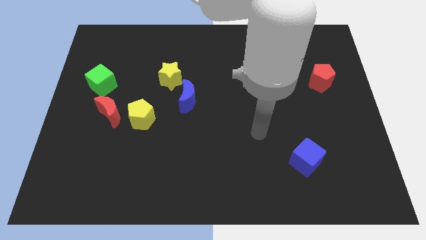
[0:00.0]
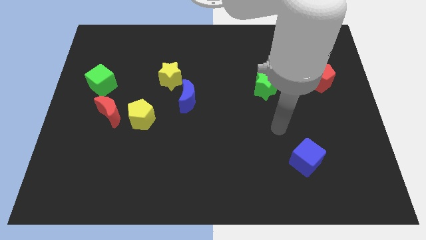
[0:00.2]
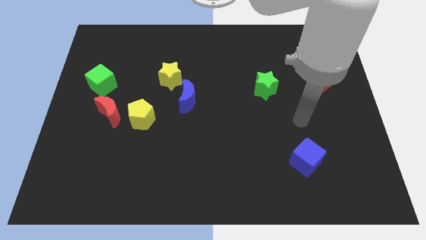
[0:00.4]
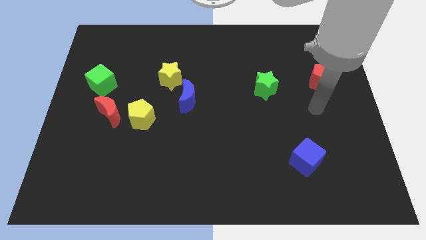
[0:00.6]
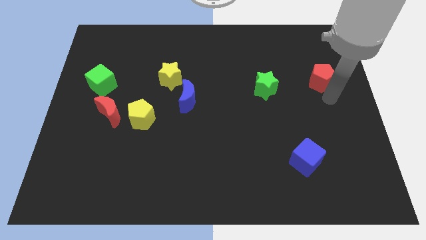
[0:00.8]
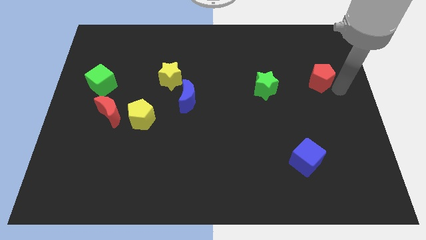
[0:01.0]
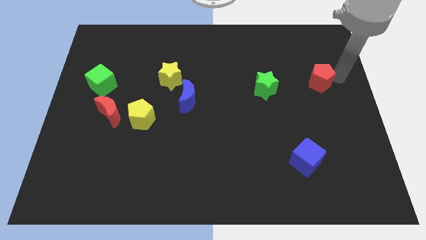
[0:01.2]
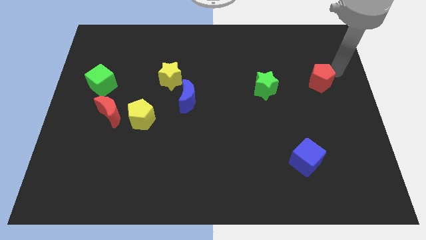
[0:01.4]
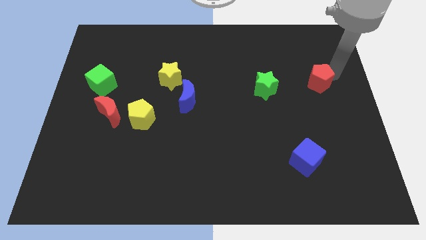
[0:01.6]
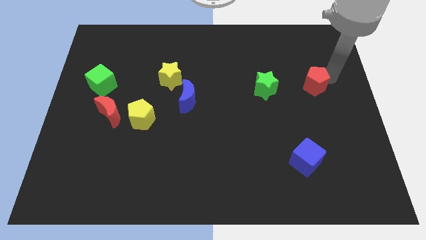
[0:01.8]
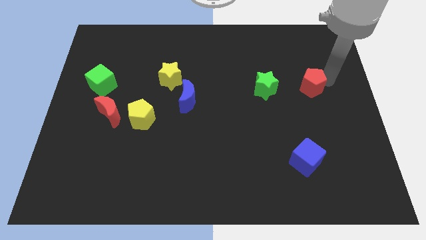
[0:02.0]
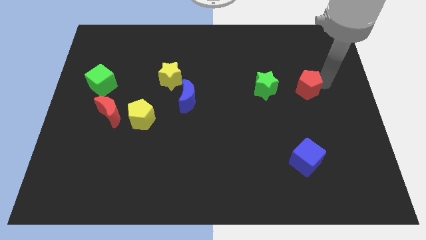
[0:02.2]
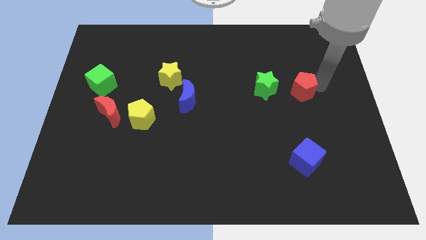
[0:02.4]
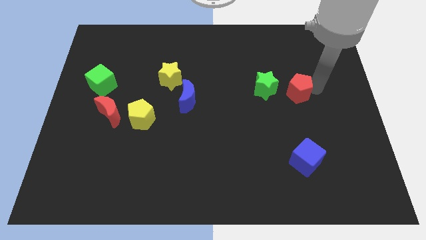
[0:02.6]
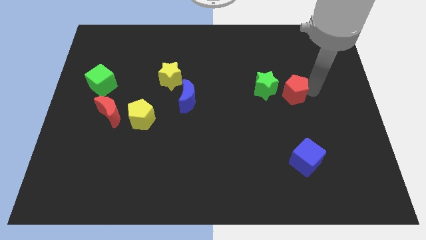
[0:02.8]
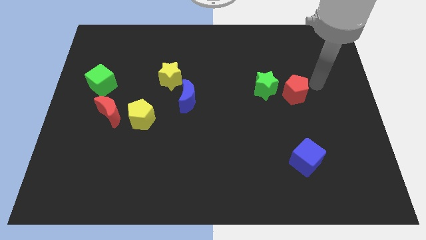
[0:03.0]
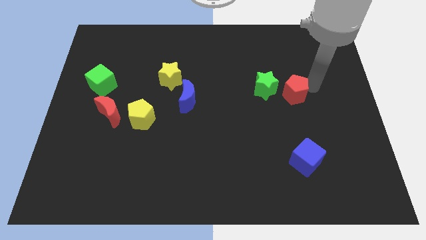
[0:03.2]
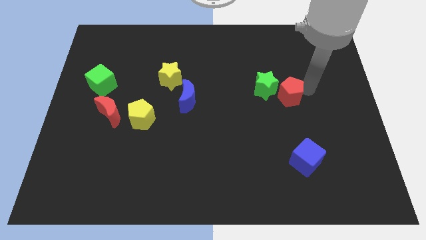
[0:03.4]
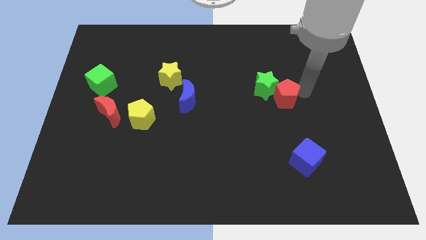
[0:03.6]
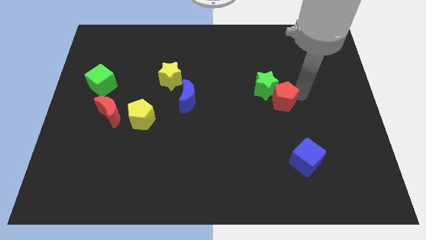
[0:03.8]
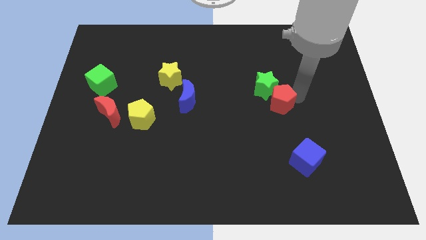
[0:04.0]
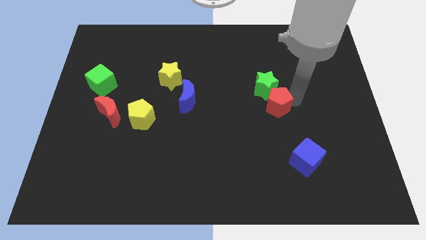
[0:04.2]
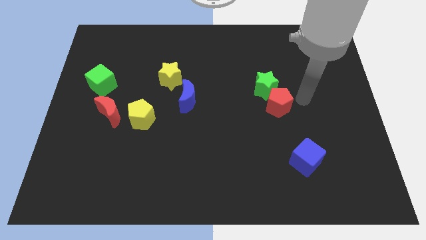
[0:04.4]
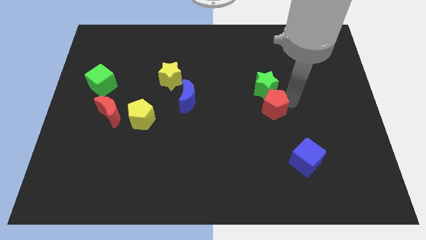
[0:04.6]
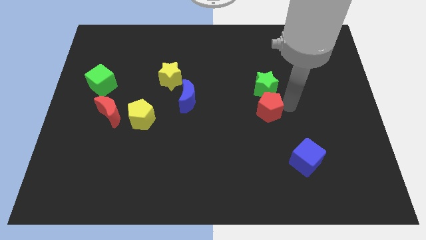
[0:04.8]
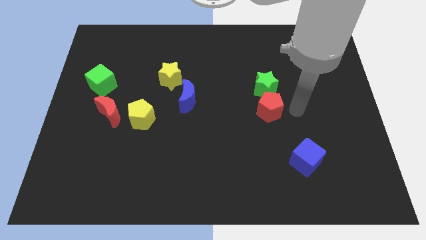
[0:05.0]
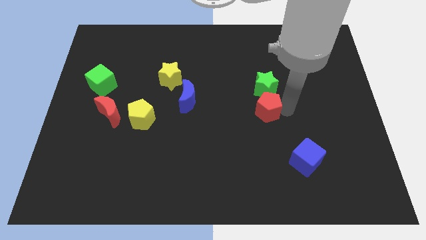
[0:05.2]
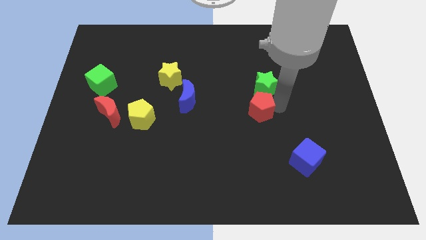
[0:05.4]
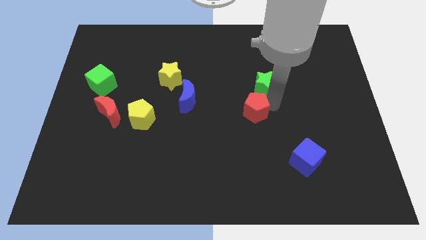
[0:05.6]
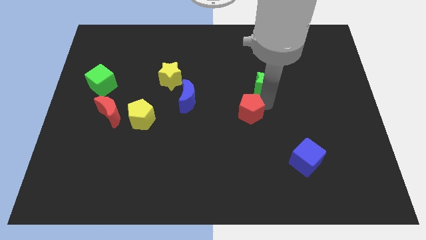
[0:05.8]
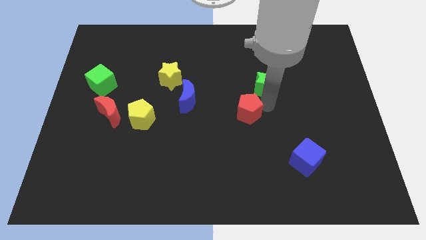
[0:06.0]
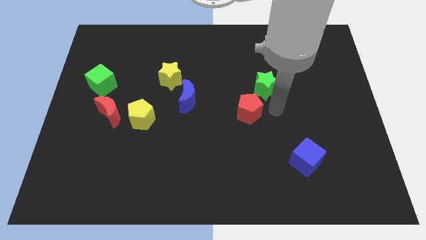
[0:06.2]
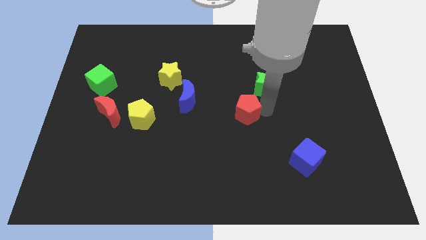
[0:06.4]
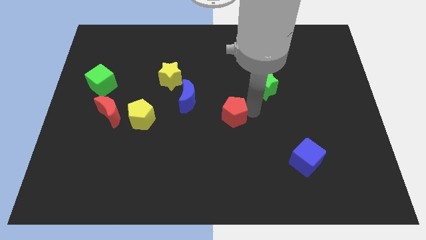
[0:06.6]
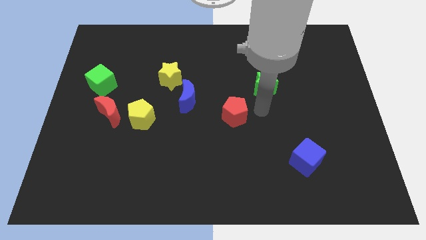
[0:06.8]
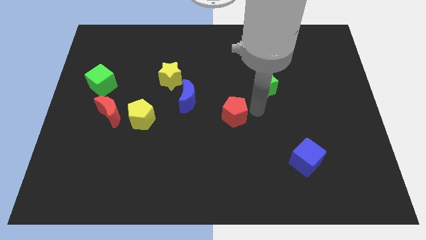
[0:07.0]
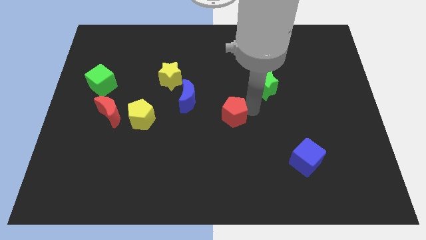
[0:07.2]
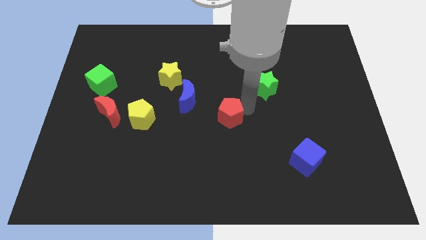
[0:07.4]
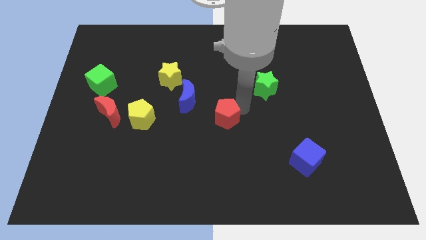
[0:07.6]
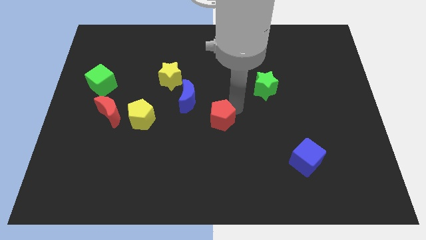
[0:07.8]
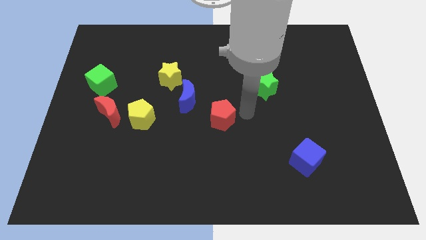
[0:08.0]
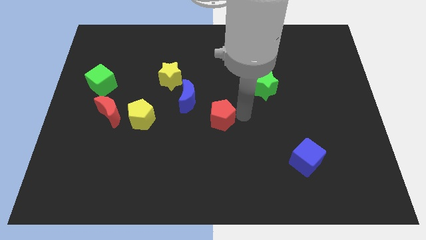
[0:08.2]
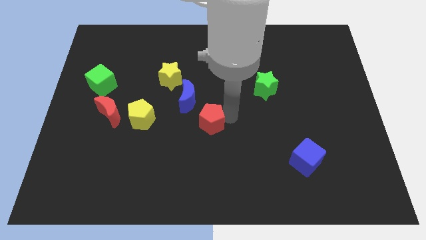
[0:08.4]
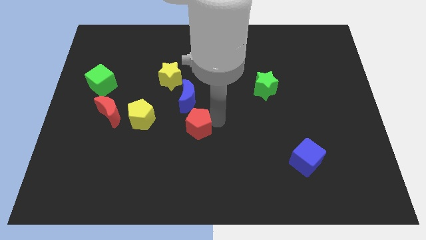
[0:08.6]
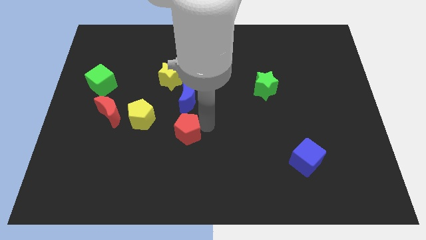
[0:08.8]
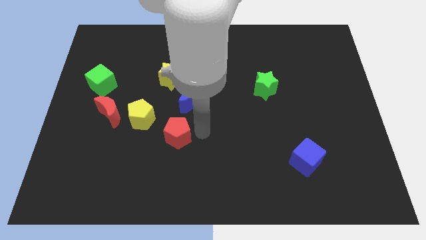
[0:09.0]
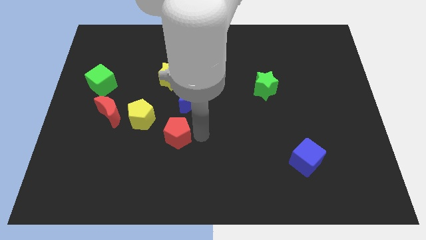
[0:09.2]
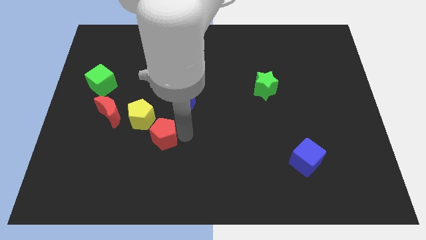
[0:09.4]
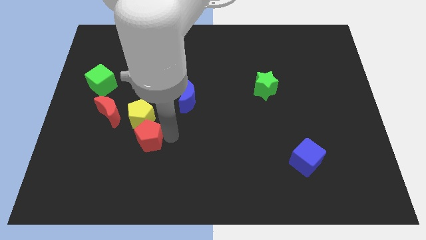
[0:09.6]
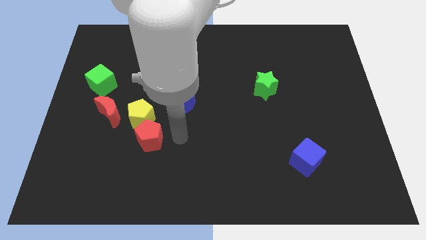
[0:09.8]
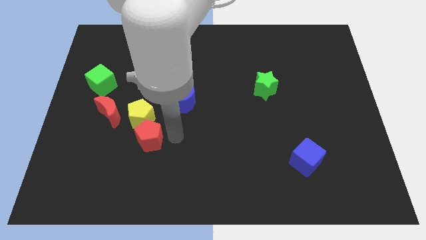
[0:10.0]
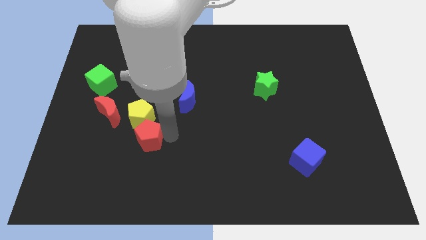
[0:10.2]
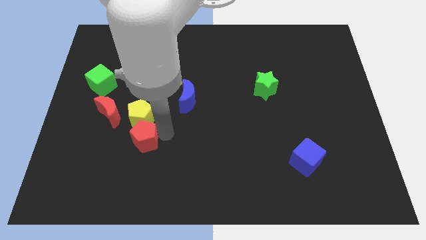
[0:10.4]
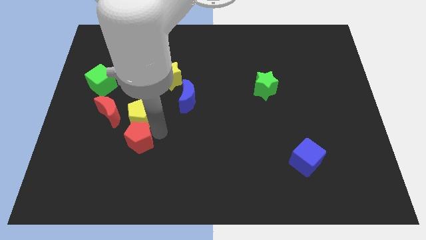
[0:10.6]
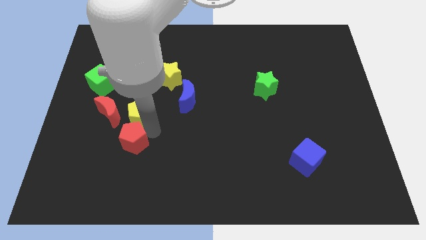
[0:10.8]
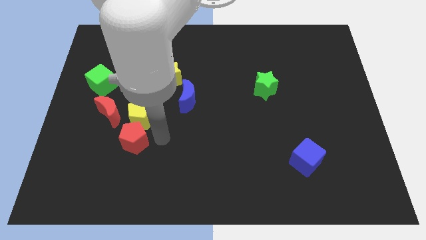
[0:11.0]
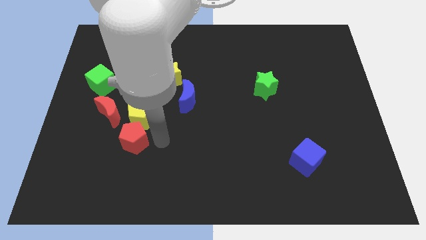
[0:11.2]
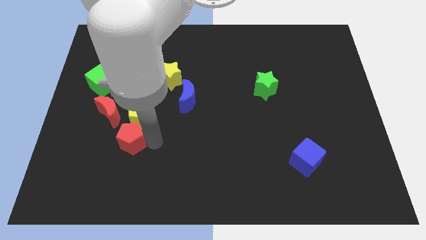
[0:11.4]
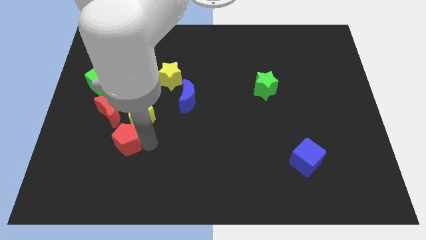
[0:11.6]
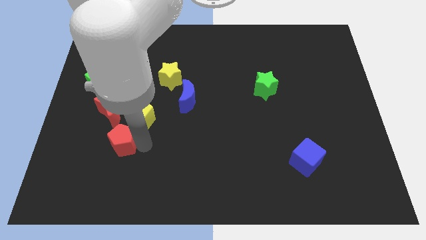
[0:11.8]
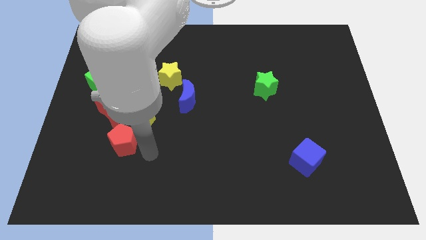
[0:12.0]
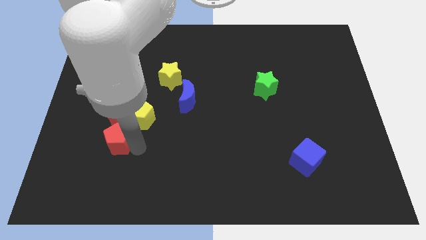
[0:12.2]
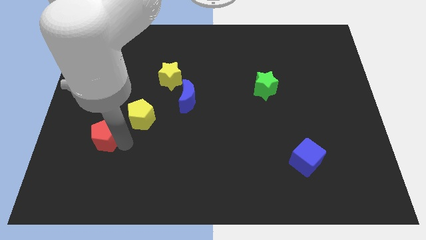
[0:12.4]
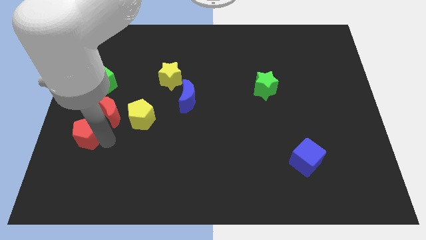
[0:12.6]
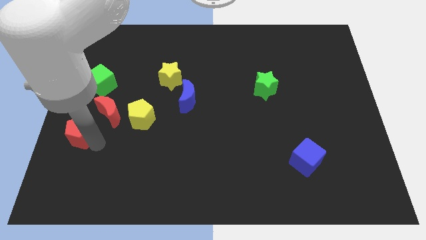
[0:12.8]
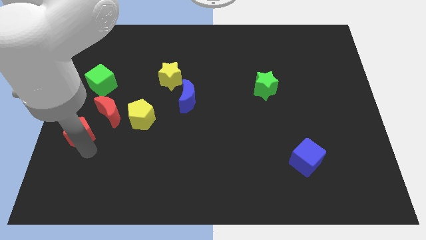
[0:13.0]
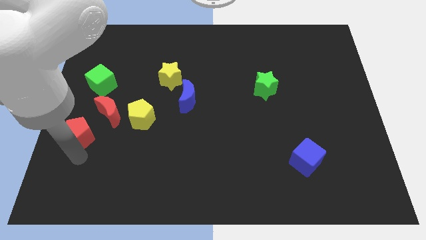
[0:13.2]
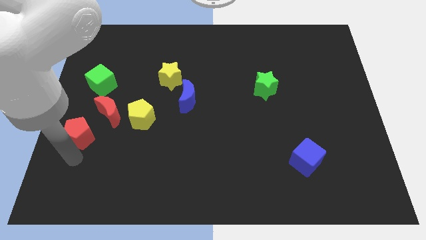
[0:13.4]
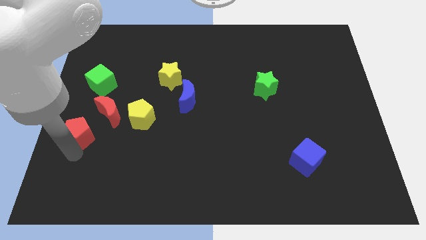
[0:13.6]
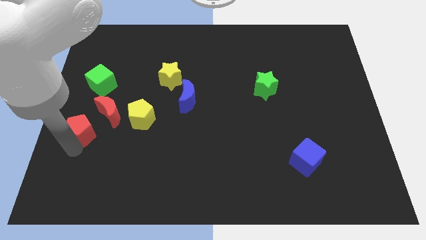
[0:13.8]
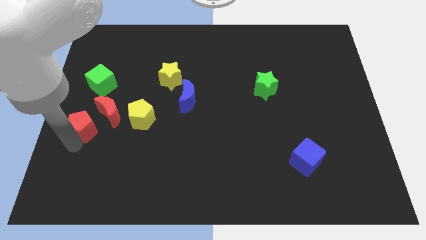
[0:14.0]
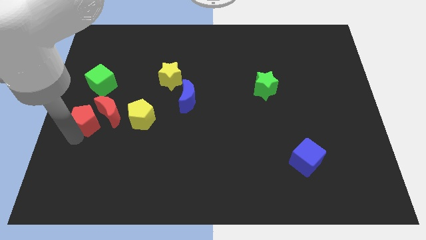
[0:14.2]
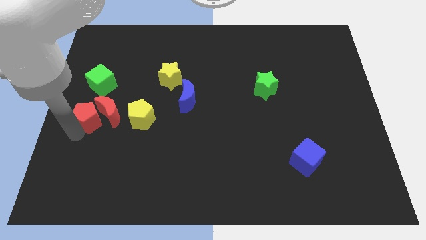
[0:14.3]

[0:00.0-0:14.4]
put the red pentagon to the top left side of the red moon
